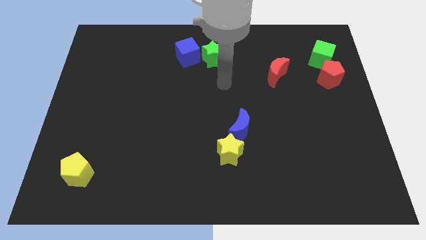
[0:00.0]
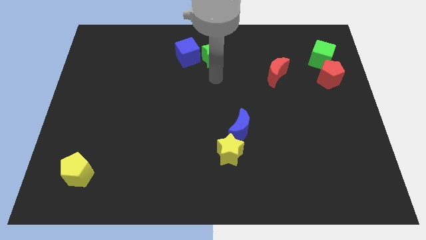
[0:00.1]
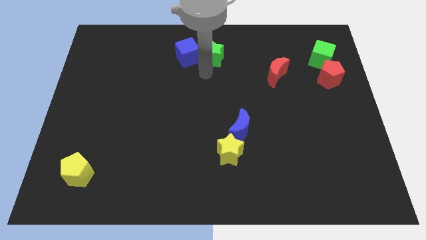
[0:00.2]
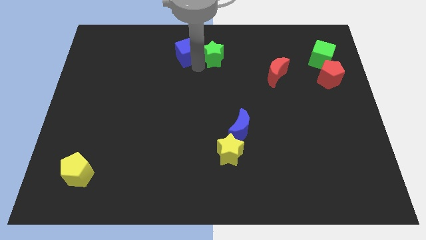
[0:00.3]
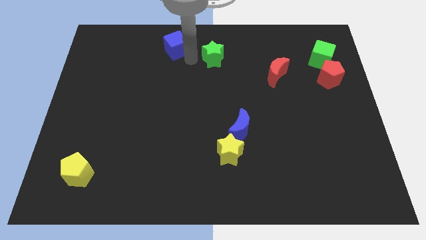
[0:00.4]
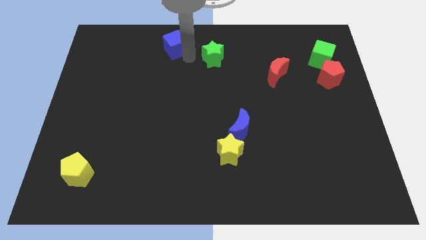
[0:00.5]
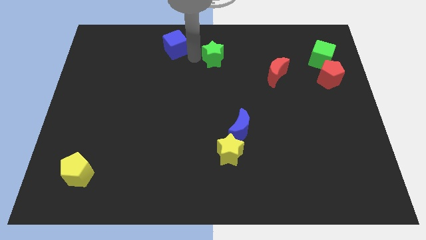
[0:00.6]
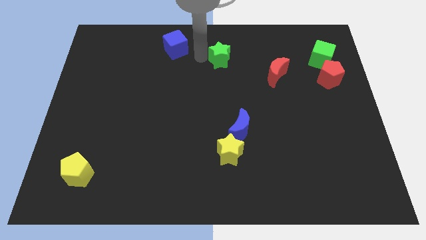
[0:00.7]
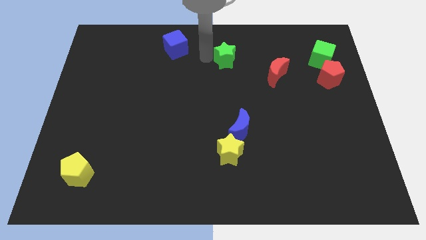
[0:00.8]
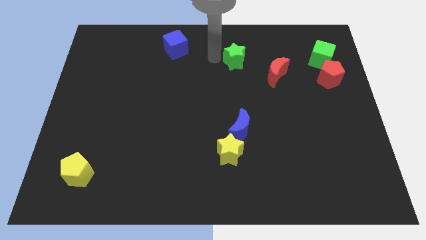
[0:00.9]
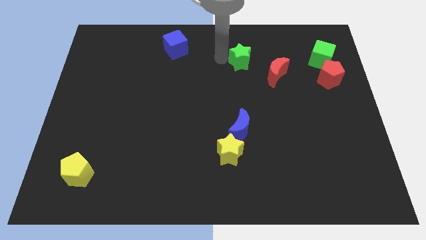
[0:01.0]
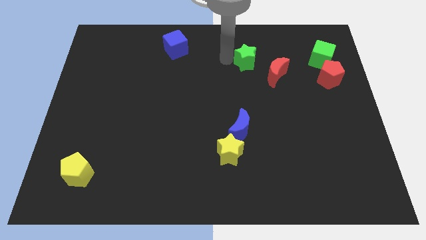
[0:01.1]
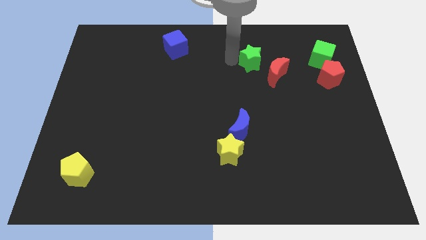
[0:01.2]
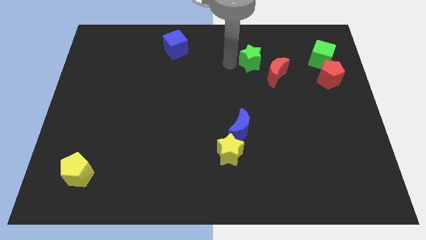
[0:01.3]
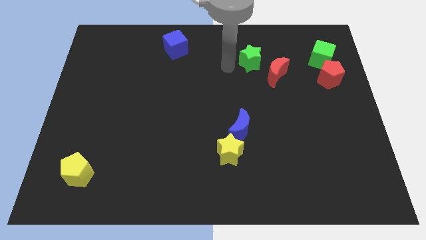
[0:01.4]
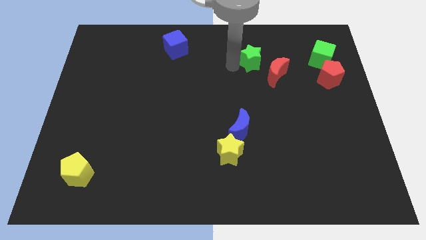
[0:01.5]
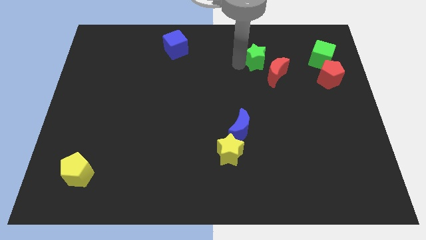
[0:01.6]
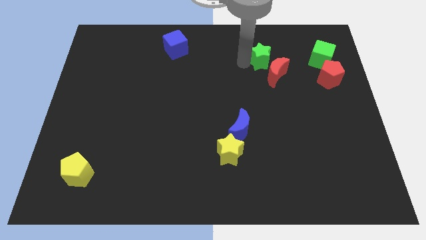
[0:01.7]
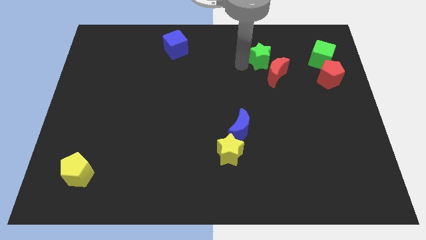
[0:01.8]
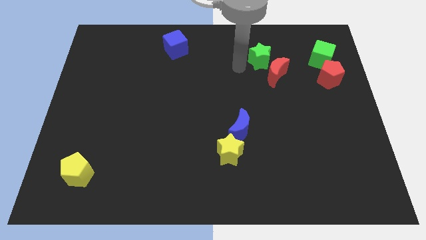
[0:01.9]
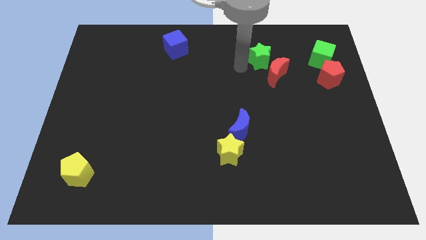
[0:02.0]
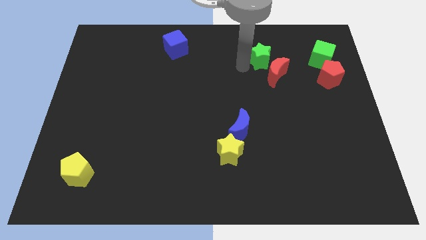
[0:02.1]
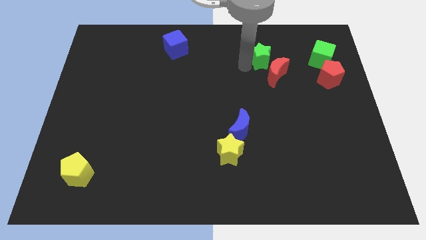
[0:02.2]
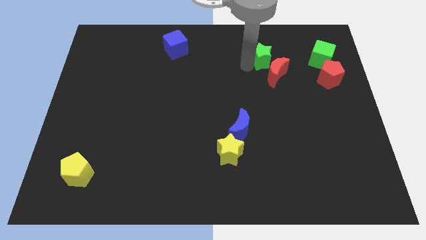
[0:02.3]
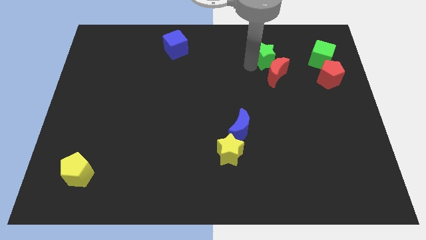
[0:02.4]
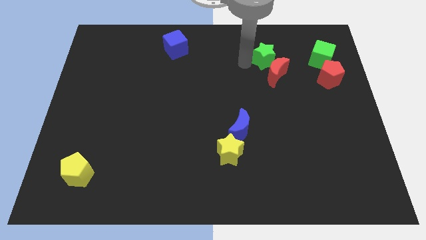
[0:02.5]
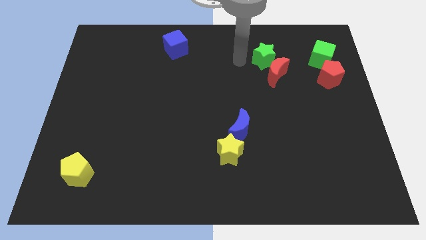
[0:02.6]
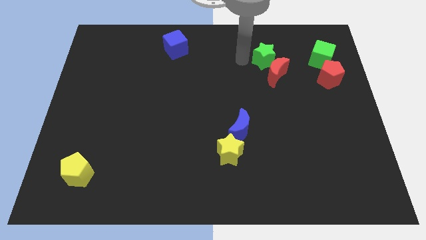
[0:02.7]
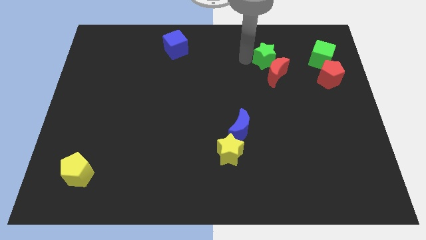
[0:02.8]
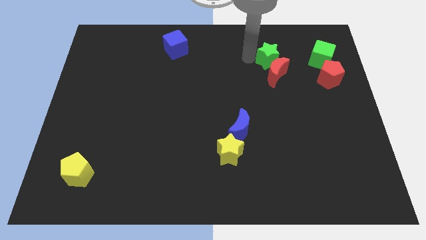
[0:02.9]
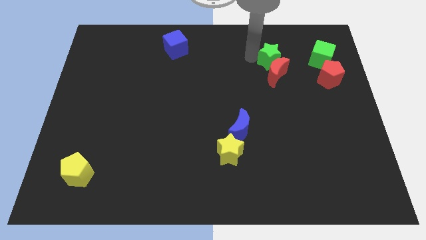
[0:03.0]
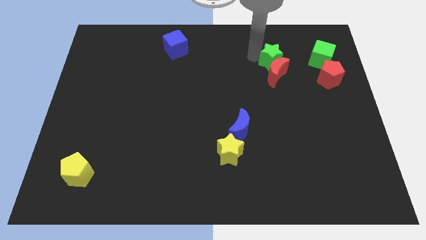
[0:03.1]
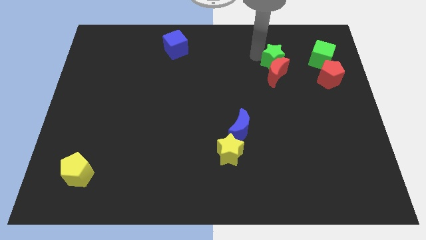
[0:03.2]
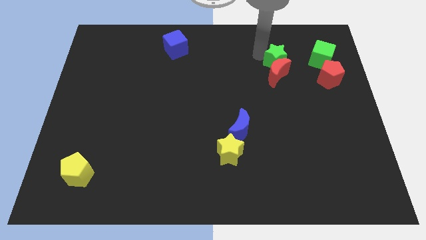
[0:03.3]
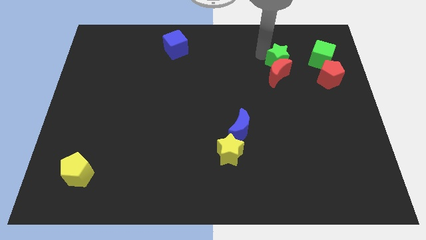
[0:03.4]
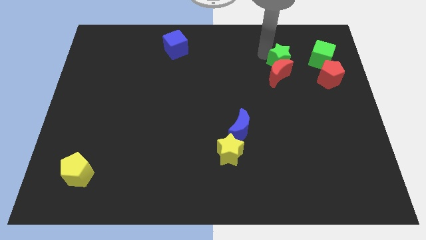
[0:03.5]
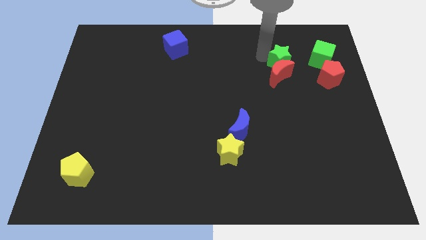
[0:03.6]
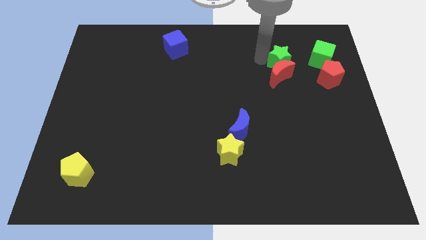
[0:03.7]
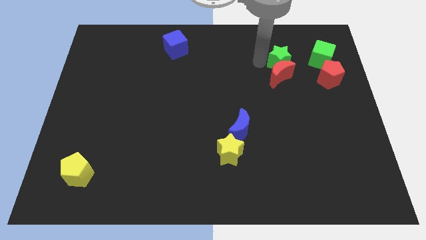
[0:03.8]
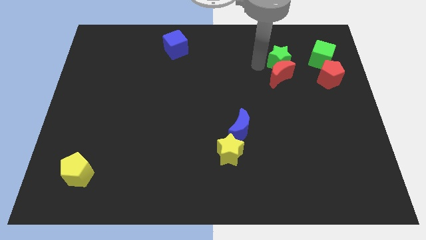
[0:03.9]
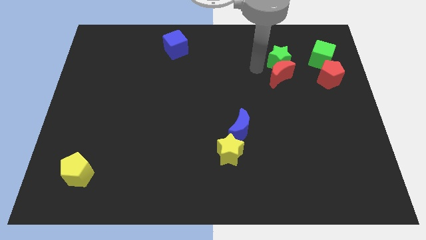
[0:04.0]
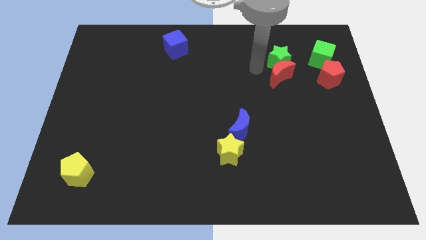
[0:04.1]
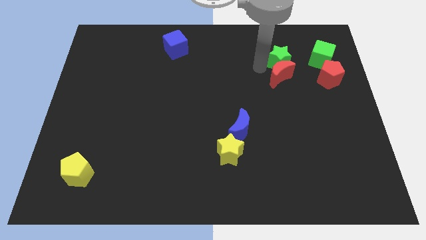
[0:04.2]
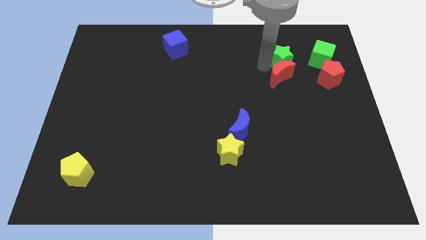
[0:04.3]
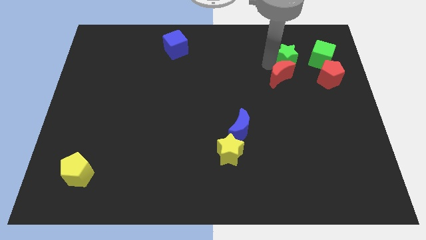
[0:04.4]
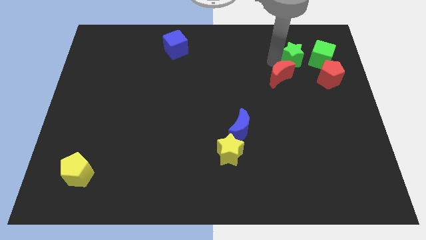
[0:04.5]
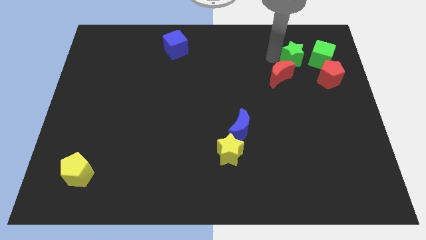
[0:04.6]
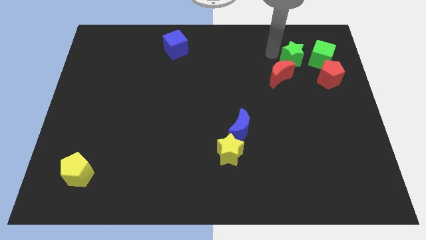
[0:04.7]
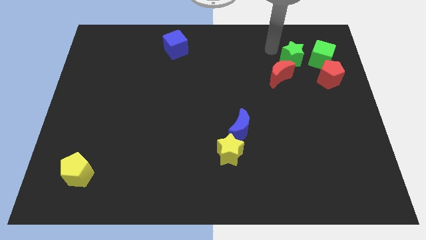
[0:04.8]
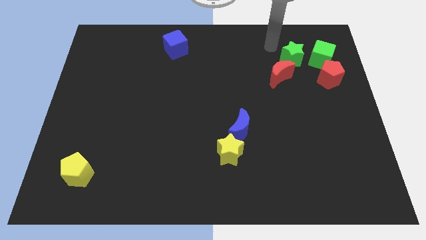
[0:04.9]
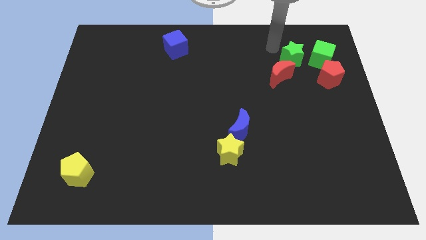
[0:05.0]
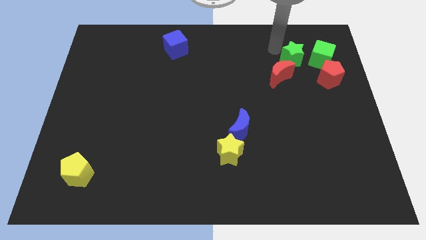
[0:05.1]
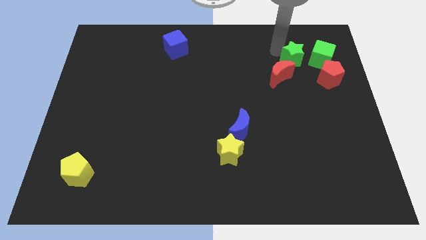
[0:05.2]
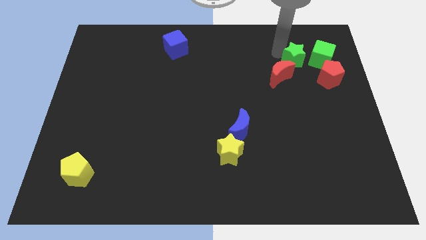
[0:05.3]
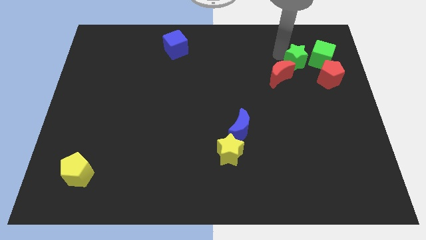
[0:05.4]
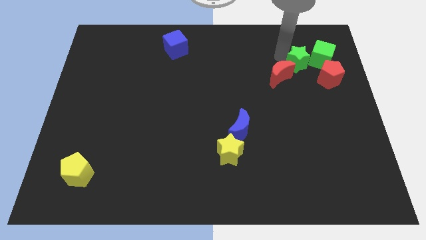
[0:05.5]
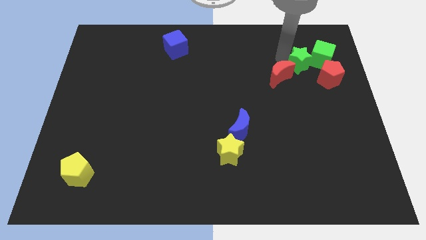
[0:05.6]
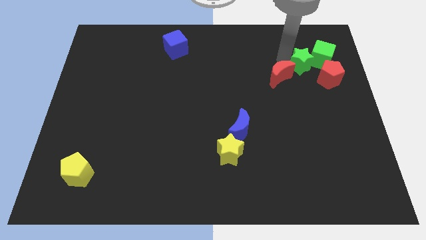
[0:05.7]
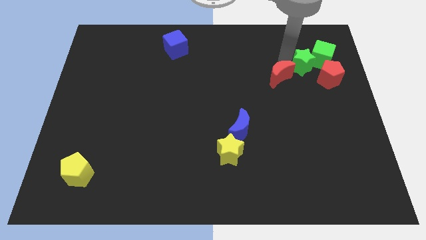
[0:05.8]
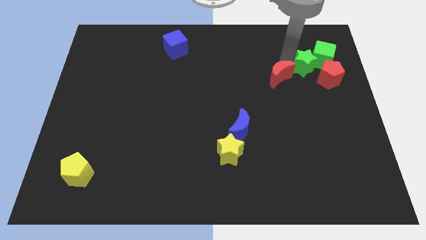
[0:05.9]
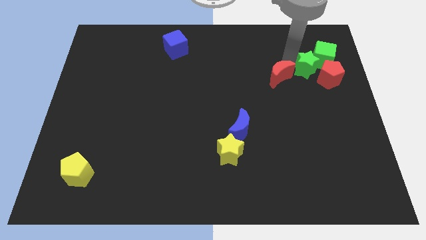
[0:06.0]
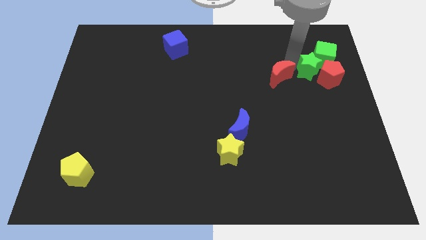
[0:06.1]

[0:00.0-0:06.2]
slide the green star to the red pentagon

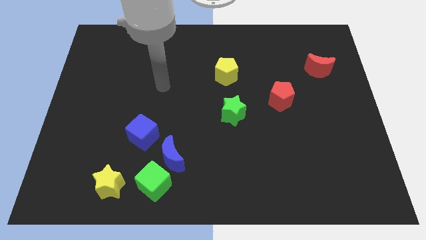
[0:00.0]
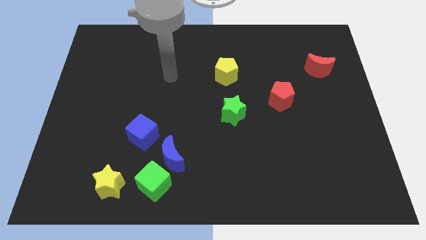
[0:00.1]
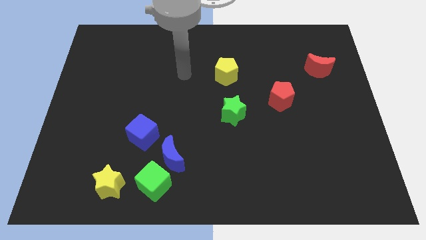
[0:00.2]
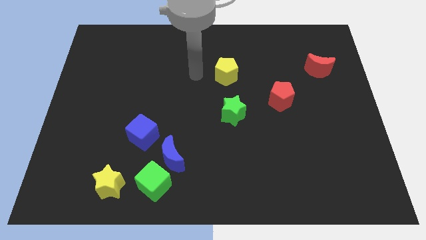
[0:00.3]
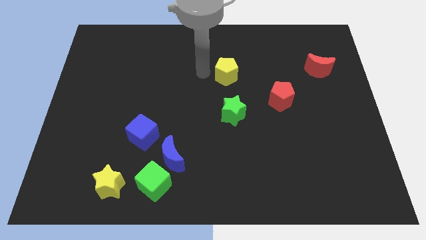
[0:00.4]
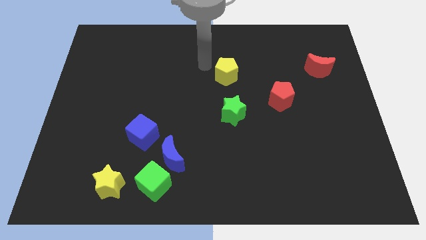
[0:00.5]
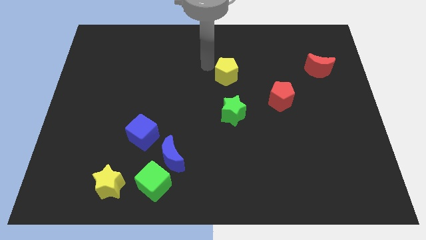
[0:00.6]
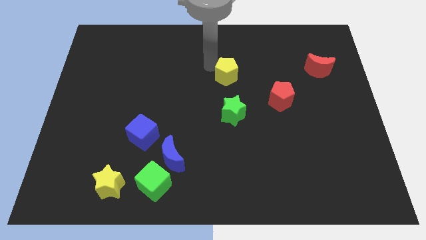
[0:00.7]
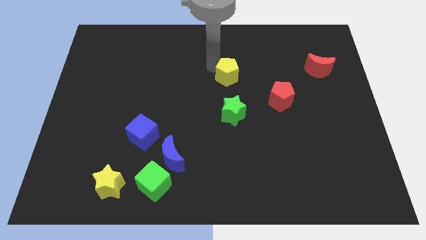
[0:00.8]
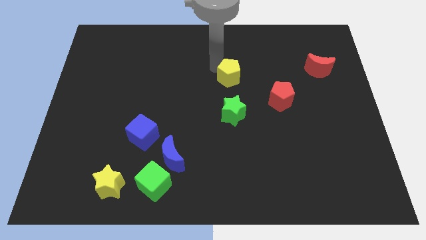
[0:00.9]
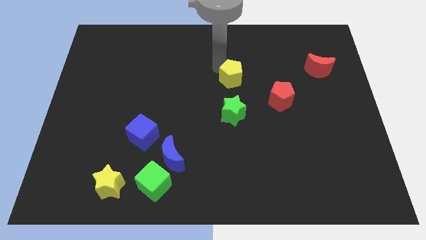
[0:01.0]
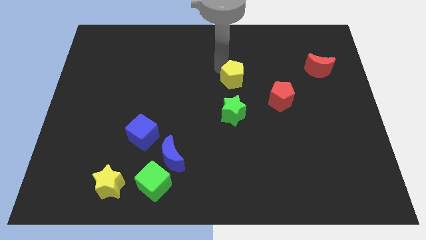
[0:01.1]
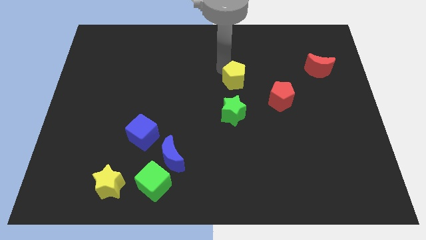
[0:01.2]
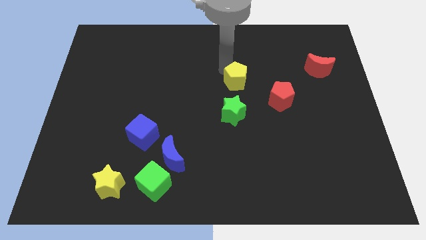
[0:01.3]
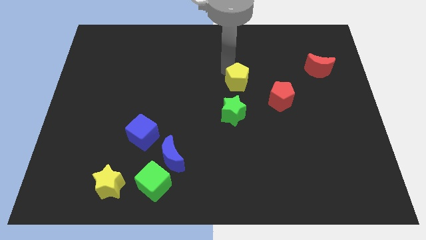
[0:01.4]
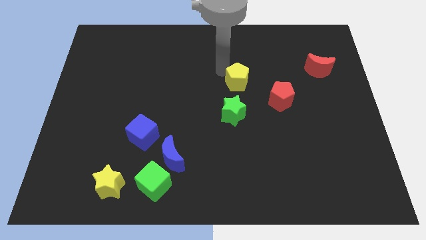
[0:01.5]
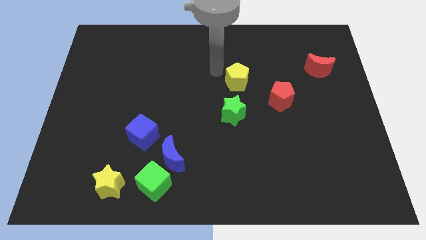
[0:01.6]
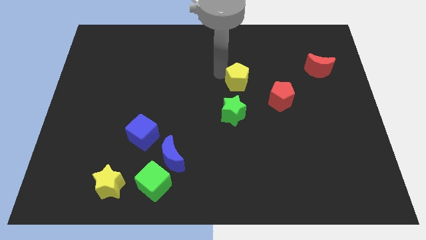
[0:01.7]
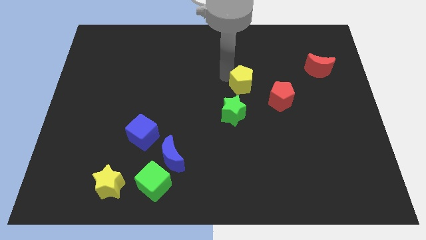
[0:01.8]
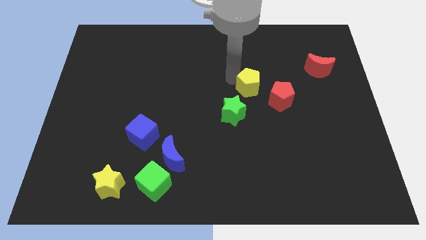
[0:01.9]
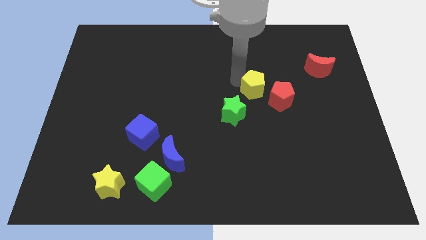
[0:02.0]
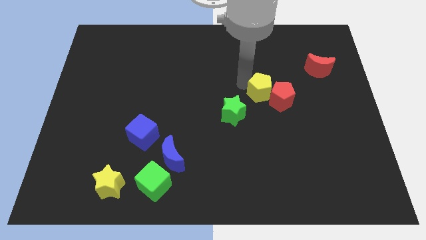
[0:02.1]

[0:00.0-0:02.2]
push the yellow pentagon towards the red pentagon
